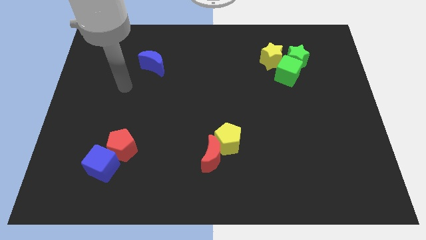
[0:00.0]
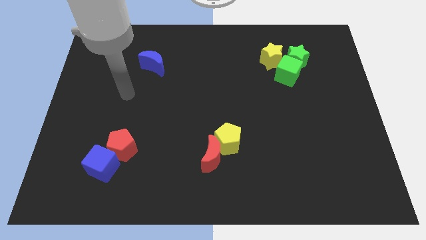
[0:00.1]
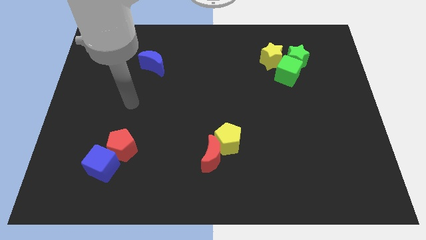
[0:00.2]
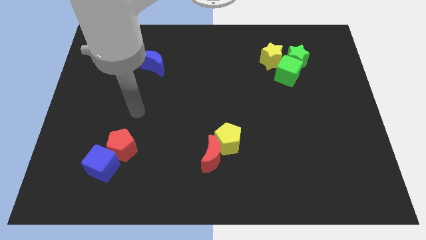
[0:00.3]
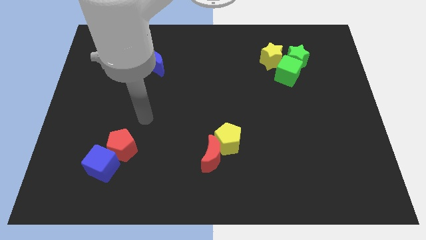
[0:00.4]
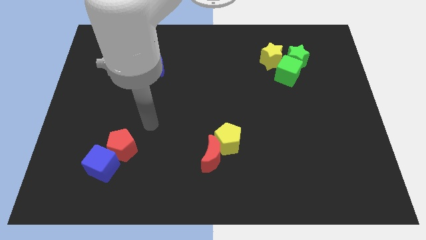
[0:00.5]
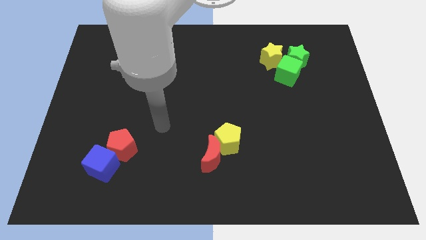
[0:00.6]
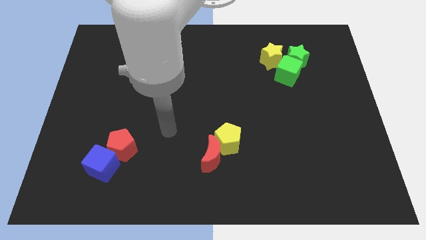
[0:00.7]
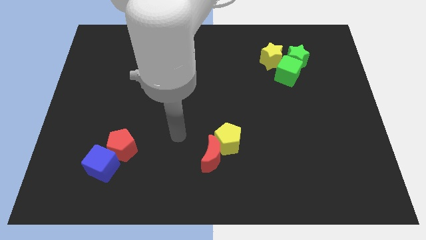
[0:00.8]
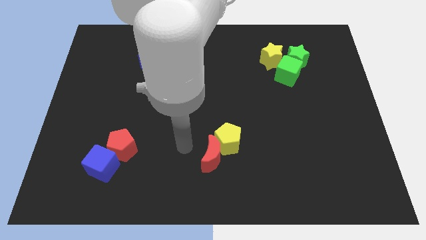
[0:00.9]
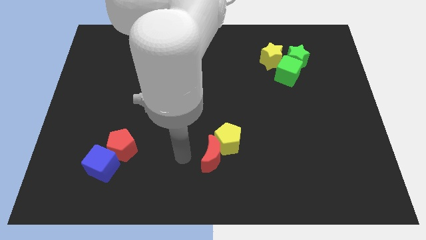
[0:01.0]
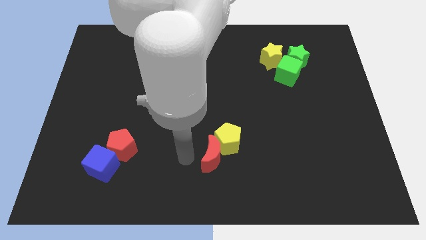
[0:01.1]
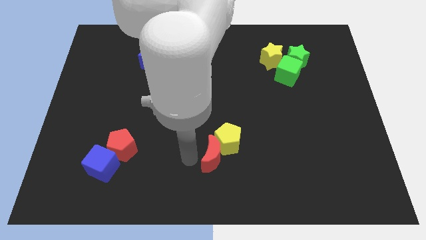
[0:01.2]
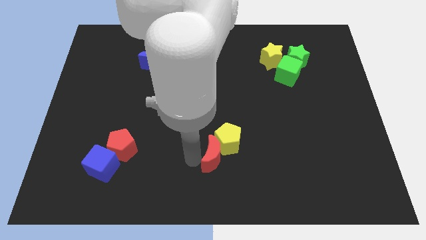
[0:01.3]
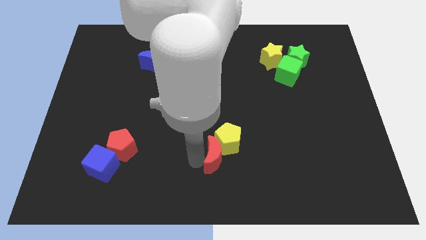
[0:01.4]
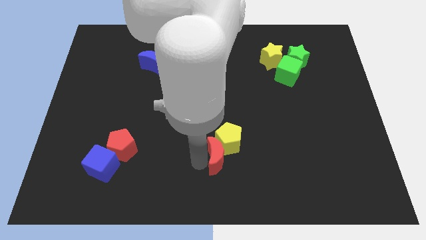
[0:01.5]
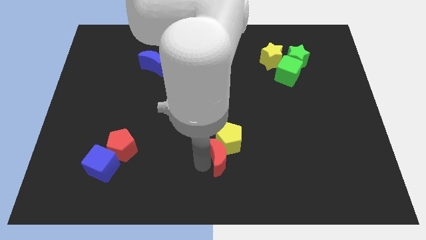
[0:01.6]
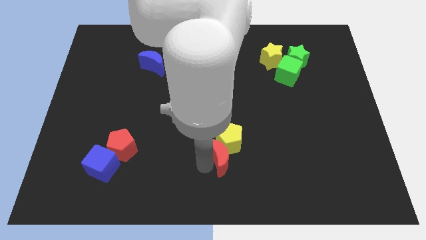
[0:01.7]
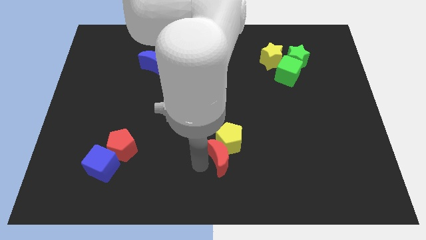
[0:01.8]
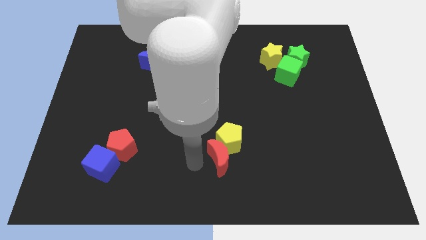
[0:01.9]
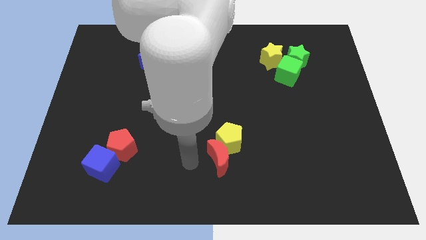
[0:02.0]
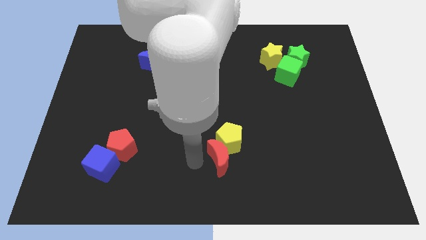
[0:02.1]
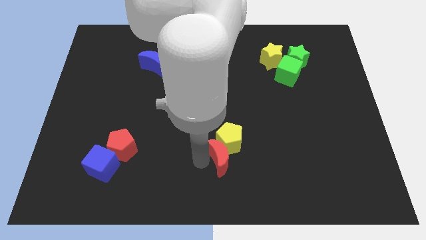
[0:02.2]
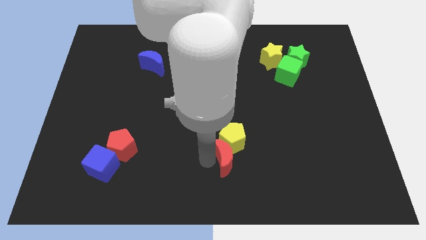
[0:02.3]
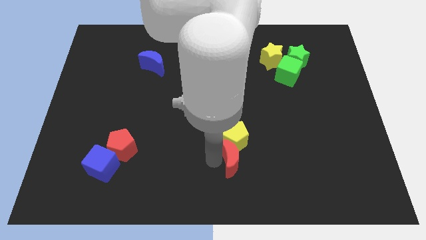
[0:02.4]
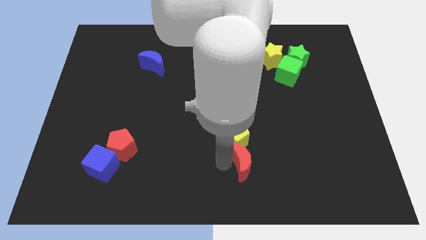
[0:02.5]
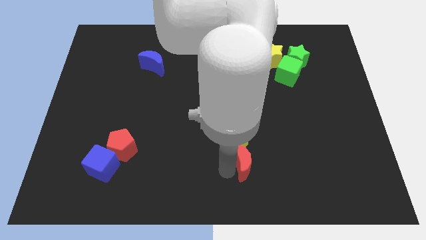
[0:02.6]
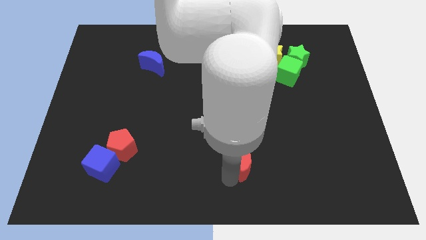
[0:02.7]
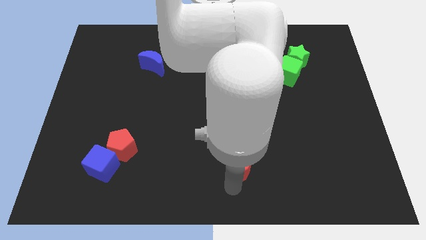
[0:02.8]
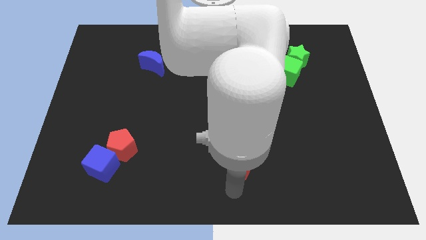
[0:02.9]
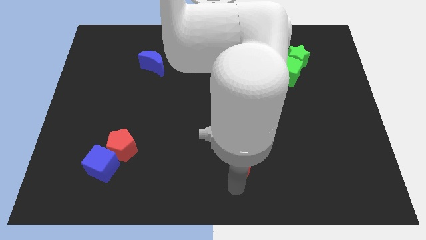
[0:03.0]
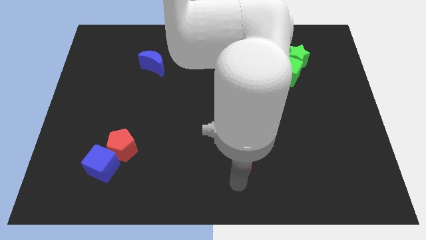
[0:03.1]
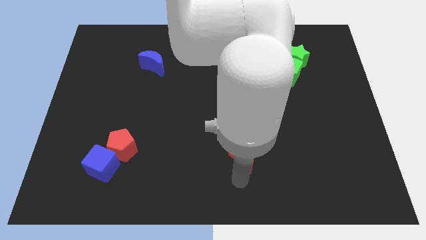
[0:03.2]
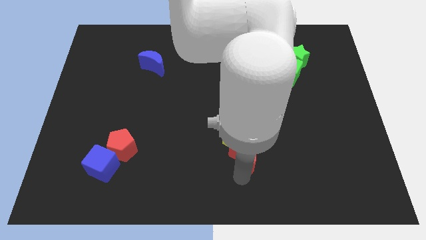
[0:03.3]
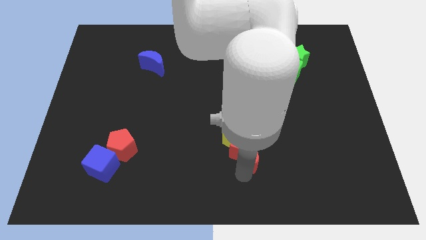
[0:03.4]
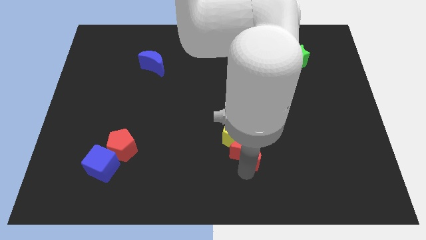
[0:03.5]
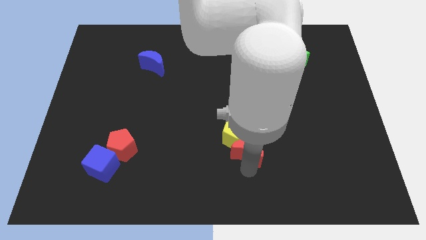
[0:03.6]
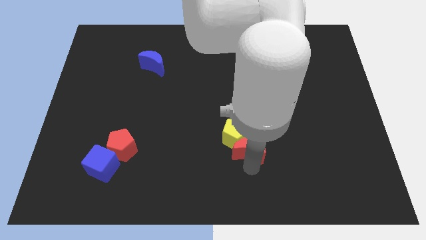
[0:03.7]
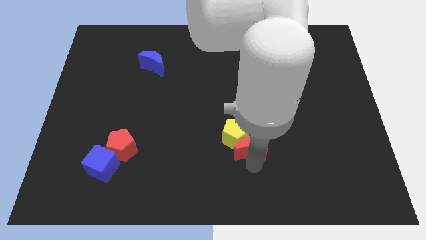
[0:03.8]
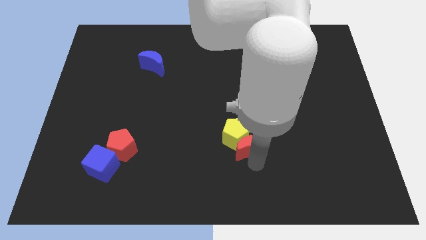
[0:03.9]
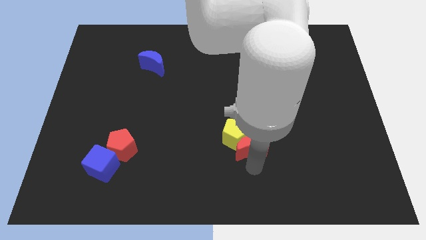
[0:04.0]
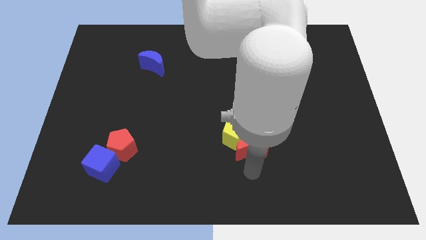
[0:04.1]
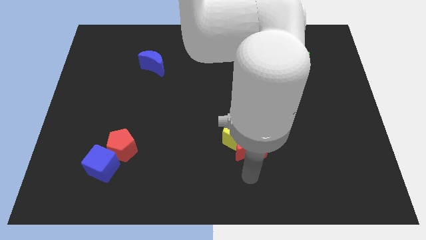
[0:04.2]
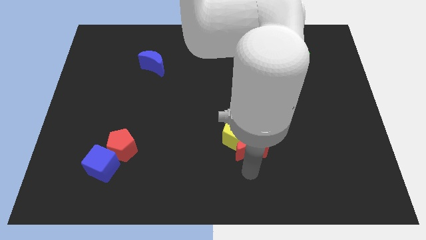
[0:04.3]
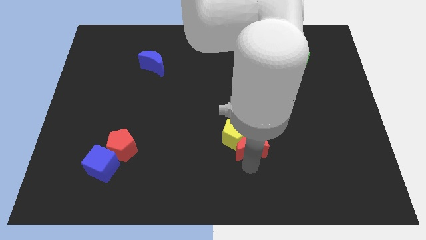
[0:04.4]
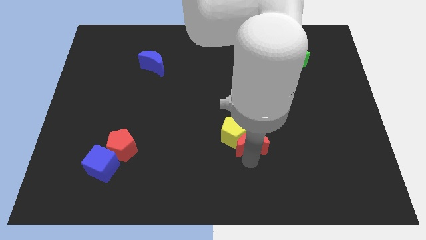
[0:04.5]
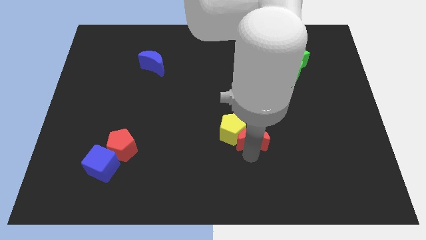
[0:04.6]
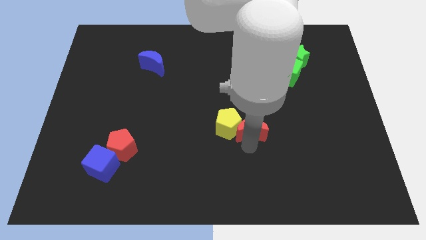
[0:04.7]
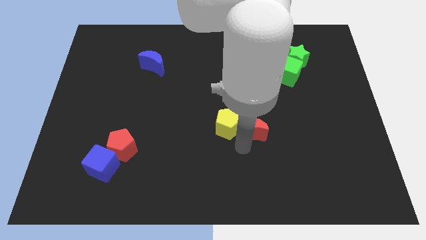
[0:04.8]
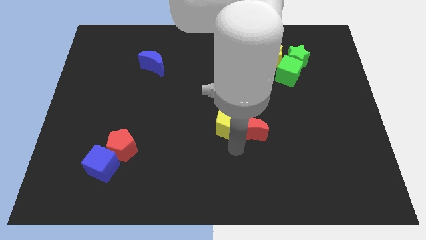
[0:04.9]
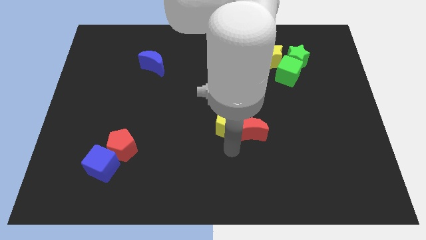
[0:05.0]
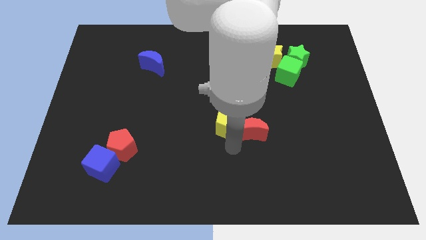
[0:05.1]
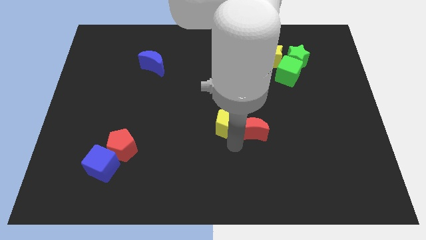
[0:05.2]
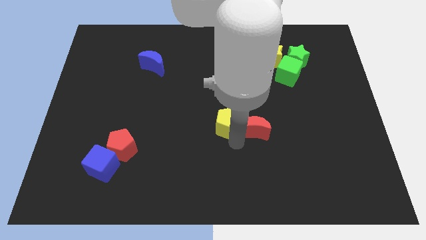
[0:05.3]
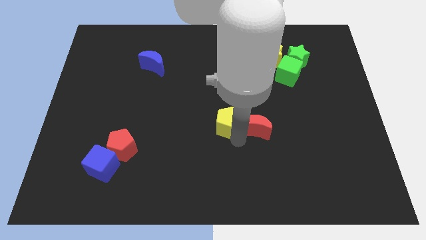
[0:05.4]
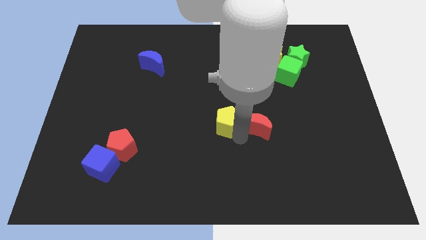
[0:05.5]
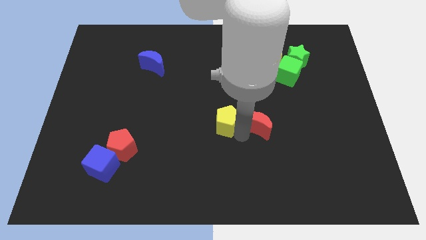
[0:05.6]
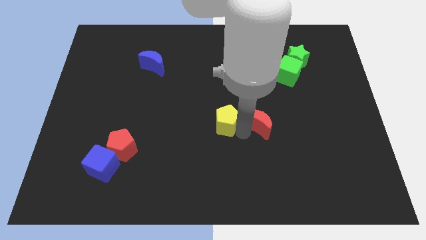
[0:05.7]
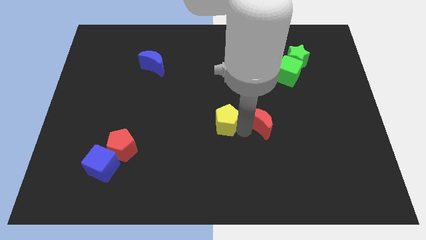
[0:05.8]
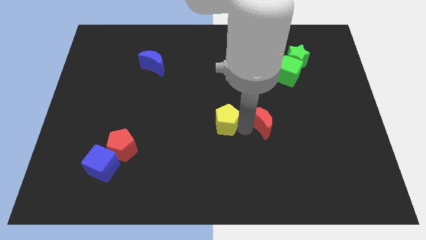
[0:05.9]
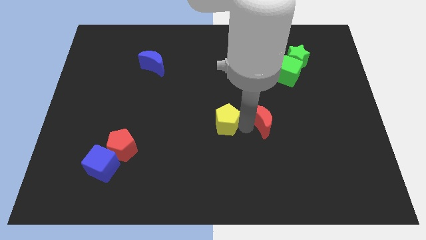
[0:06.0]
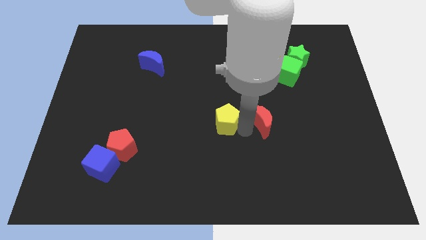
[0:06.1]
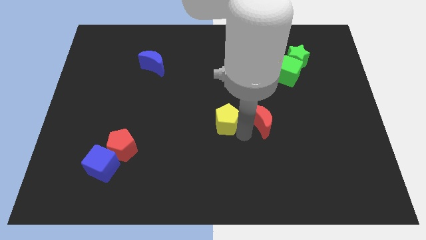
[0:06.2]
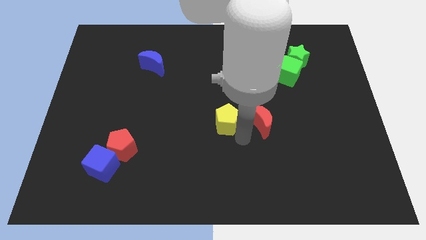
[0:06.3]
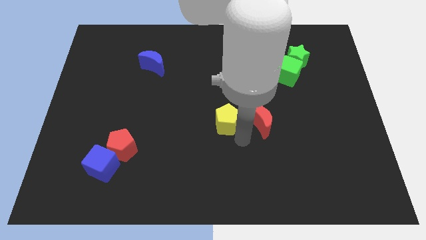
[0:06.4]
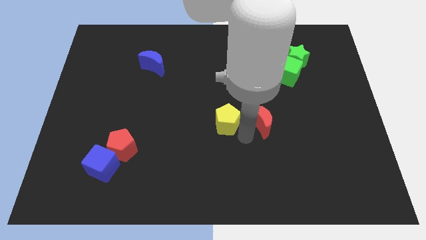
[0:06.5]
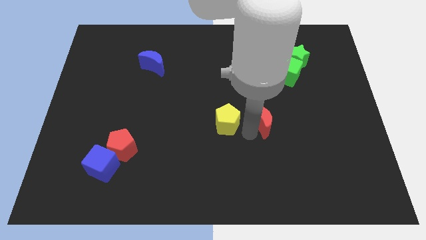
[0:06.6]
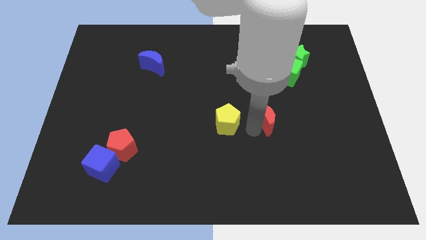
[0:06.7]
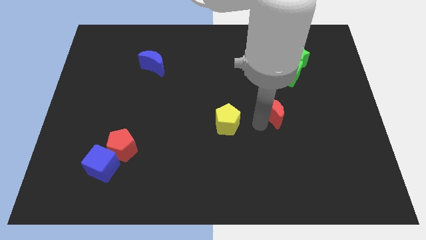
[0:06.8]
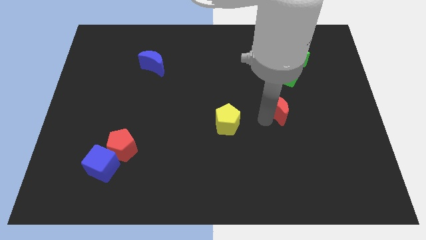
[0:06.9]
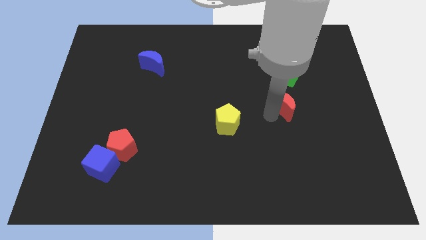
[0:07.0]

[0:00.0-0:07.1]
slide the red moon upwards and then to the right

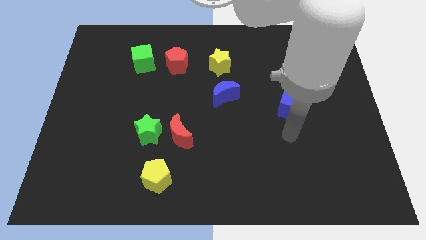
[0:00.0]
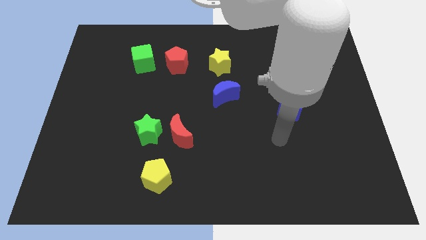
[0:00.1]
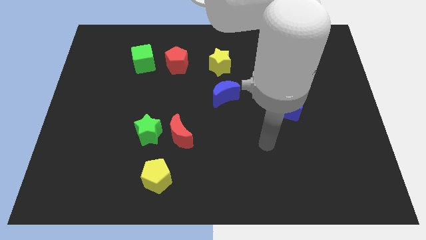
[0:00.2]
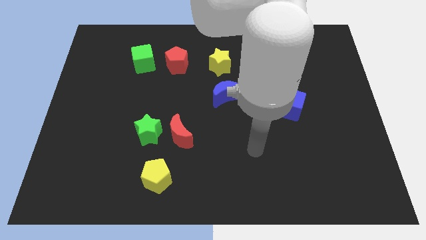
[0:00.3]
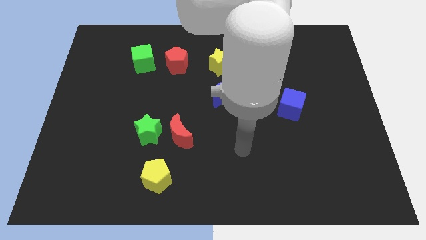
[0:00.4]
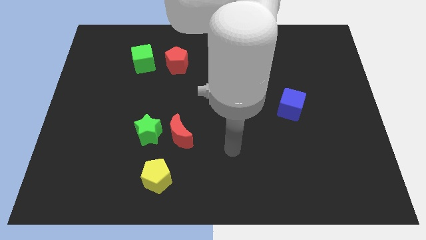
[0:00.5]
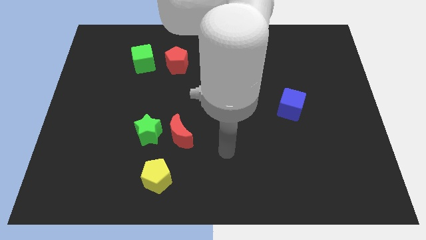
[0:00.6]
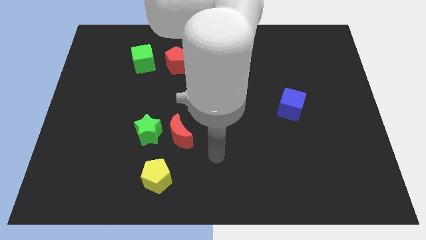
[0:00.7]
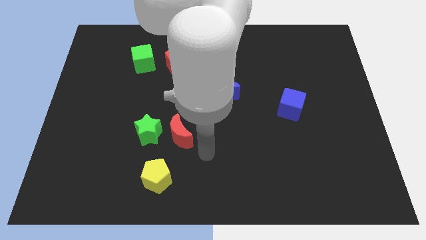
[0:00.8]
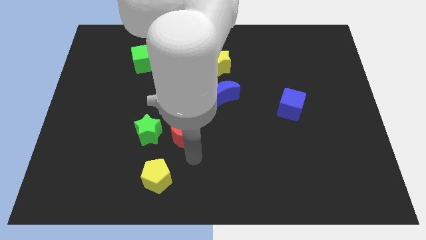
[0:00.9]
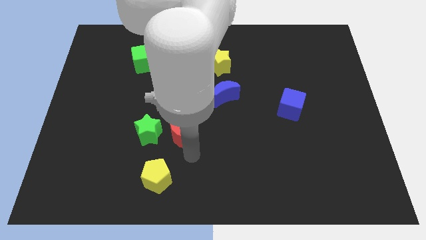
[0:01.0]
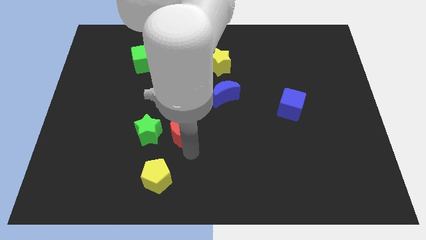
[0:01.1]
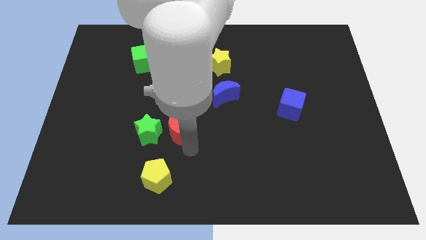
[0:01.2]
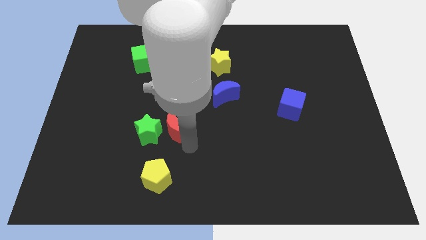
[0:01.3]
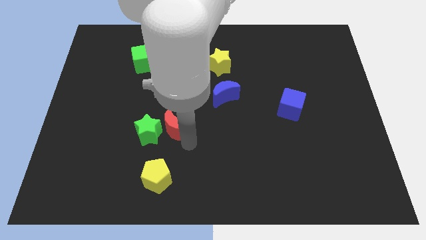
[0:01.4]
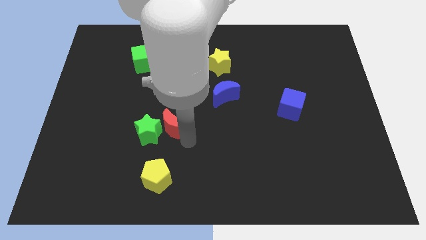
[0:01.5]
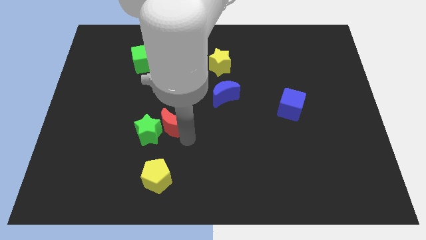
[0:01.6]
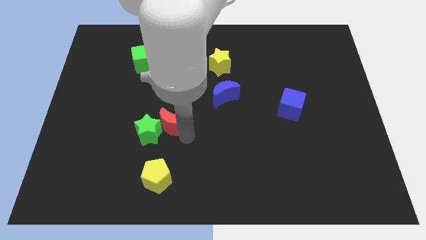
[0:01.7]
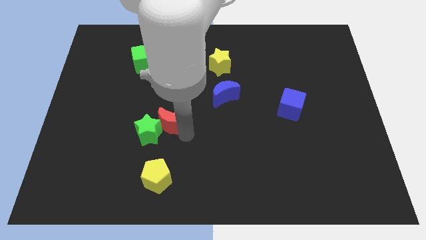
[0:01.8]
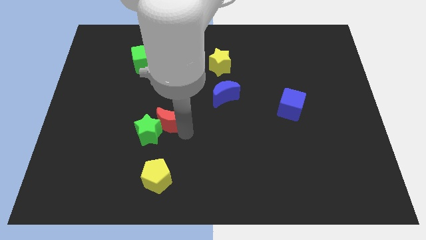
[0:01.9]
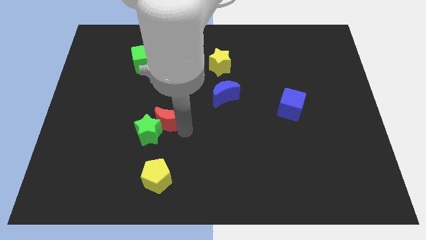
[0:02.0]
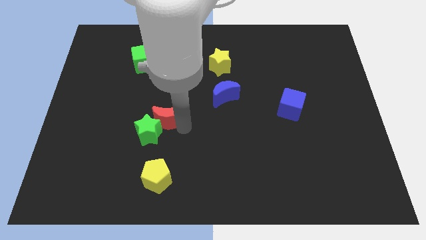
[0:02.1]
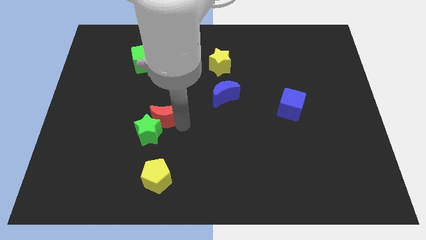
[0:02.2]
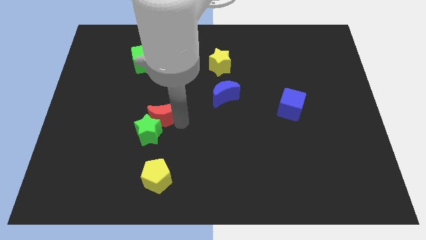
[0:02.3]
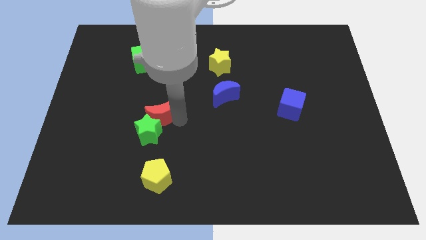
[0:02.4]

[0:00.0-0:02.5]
slide the red moon diagonally upwards and to the left slightly
